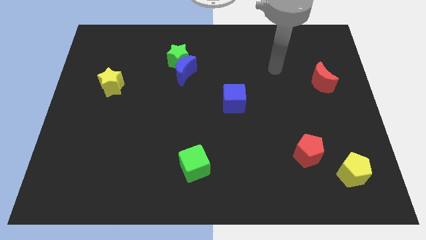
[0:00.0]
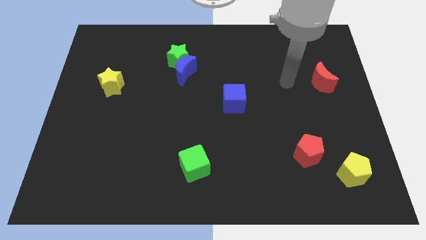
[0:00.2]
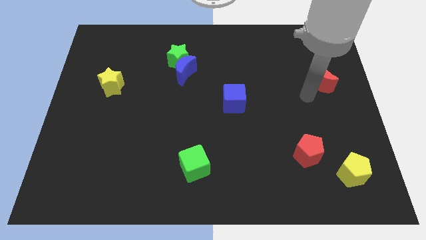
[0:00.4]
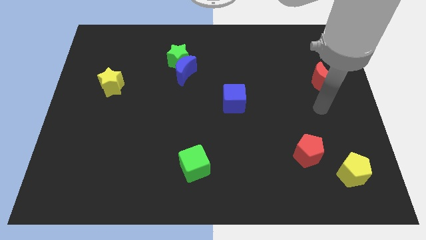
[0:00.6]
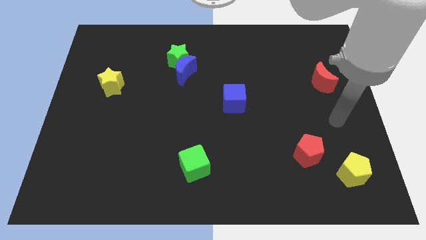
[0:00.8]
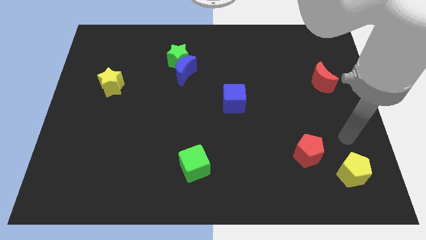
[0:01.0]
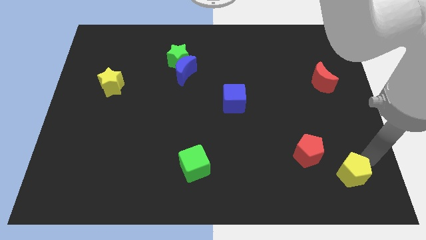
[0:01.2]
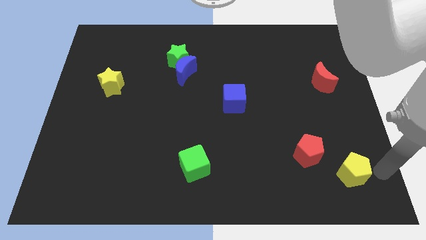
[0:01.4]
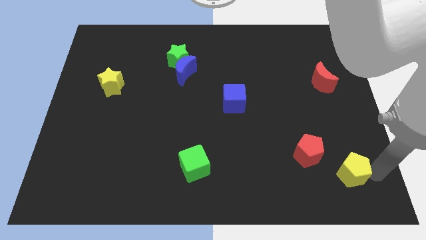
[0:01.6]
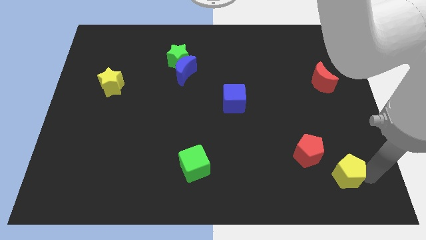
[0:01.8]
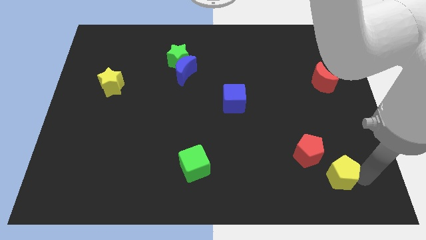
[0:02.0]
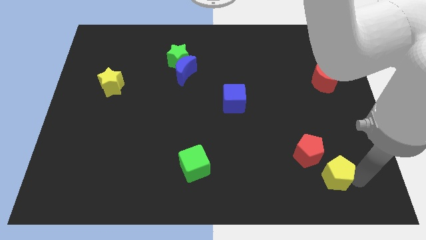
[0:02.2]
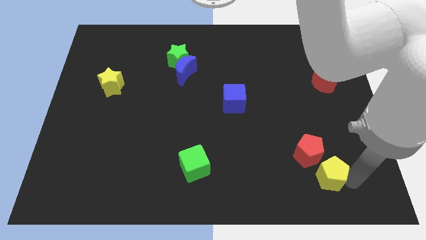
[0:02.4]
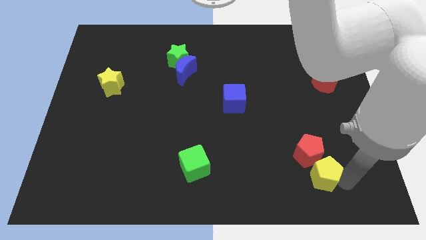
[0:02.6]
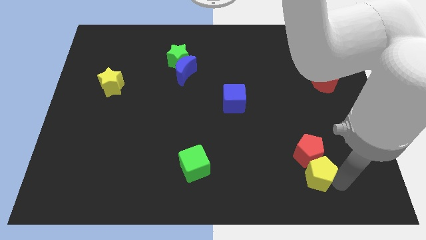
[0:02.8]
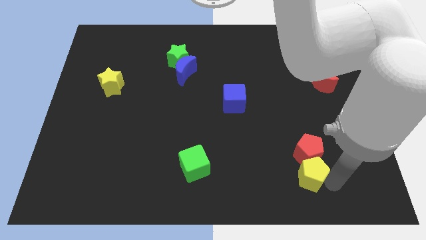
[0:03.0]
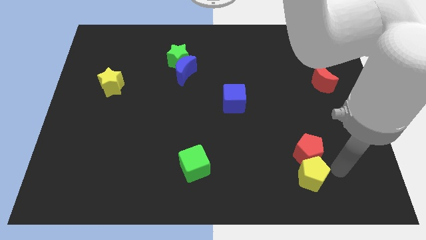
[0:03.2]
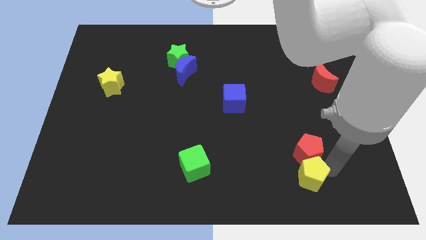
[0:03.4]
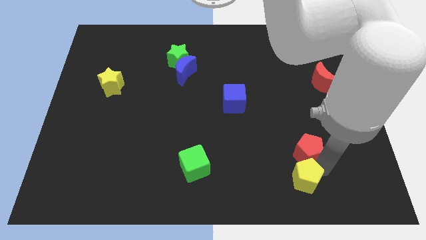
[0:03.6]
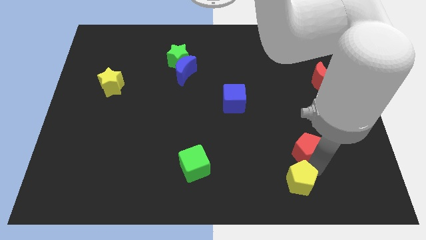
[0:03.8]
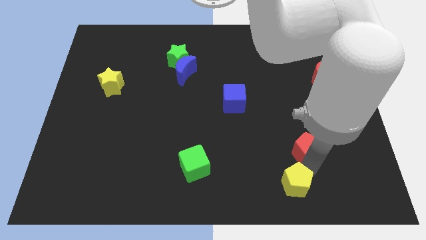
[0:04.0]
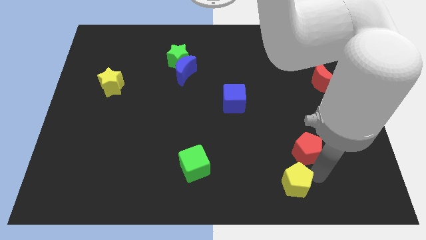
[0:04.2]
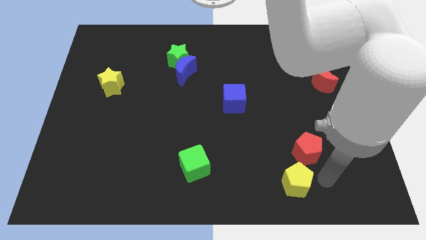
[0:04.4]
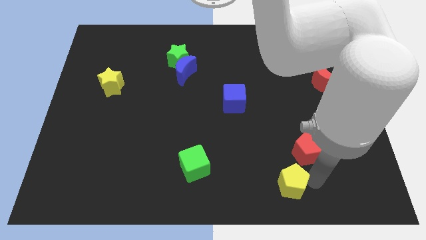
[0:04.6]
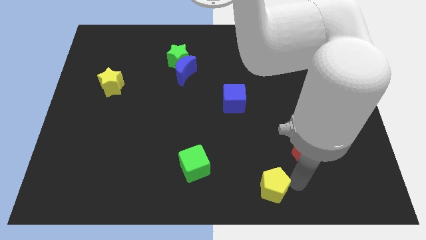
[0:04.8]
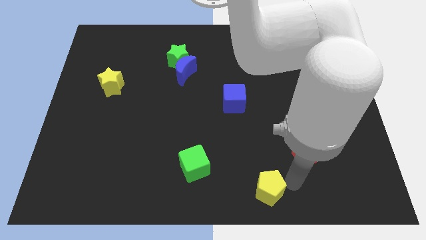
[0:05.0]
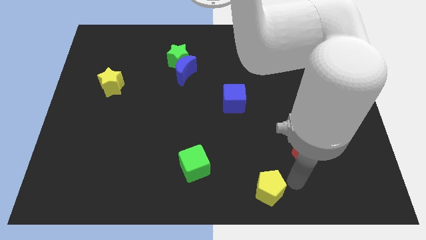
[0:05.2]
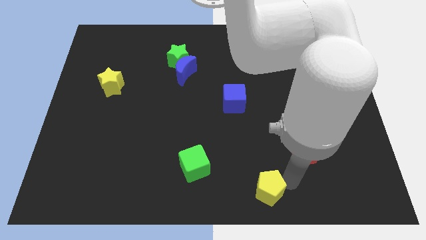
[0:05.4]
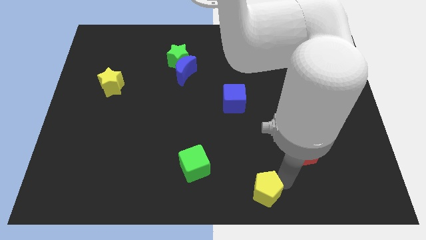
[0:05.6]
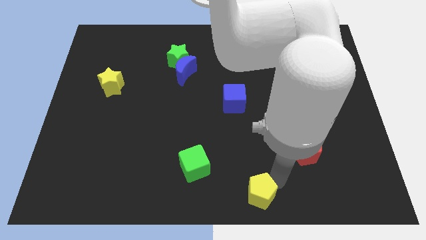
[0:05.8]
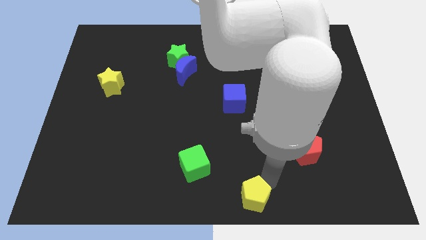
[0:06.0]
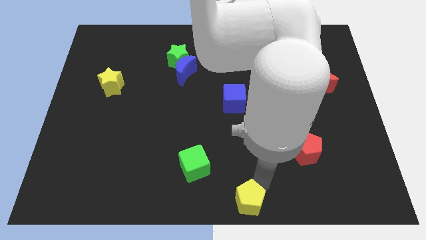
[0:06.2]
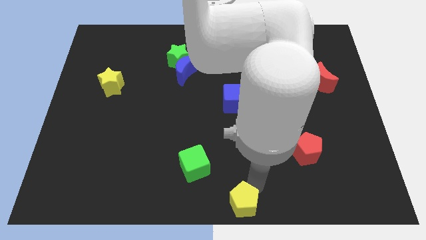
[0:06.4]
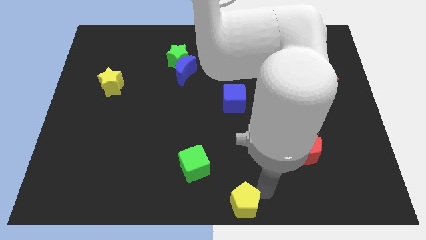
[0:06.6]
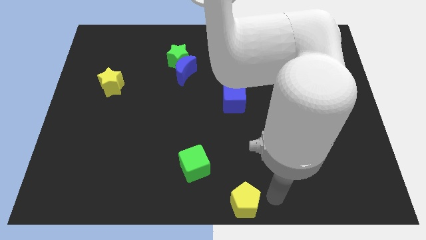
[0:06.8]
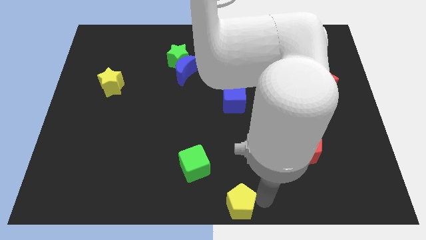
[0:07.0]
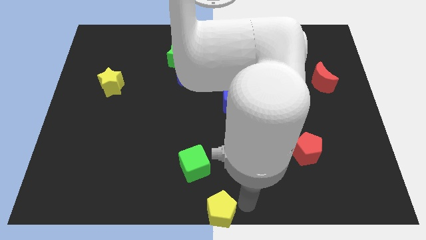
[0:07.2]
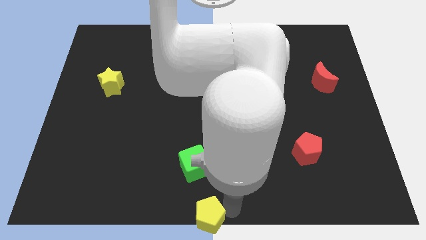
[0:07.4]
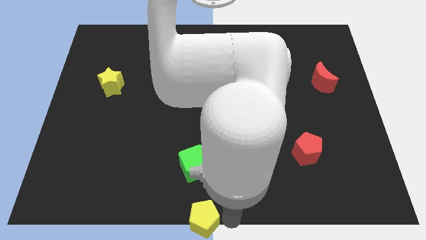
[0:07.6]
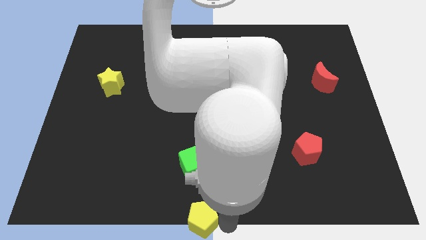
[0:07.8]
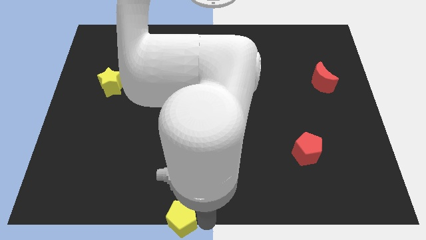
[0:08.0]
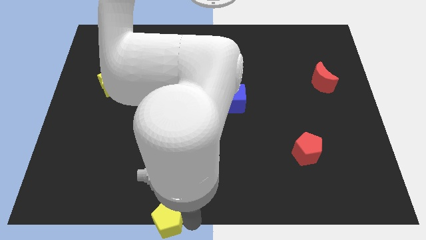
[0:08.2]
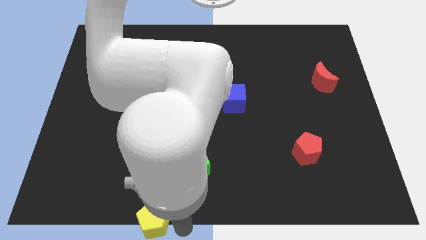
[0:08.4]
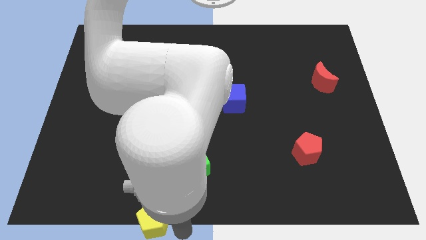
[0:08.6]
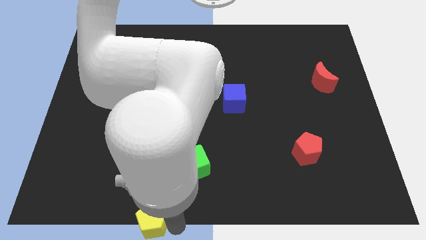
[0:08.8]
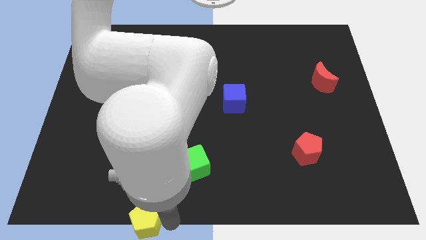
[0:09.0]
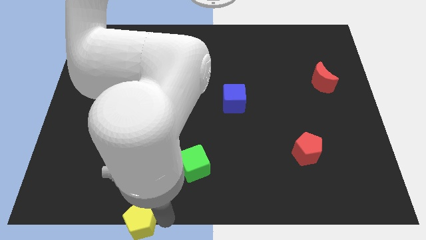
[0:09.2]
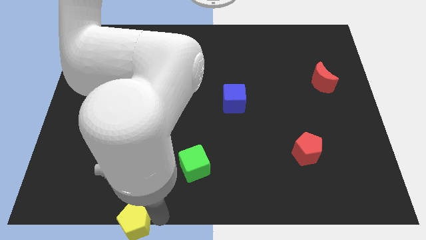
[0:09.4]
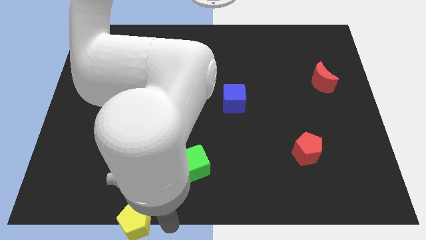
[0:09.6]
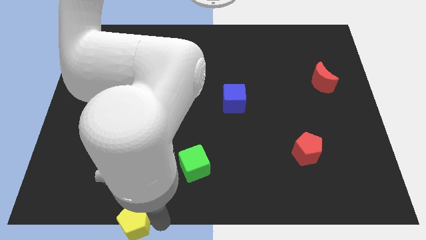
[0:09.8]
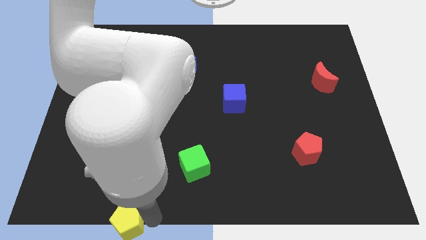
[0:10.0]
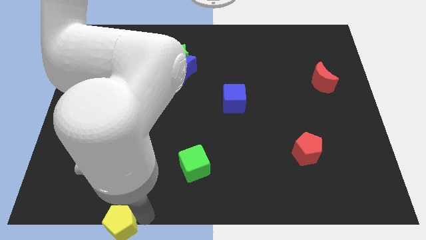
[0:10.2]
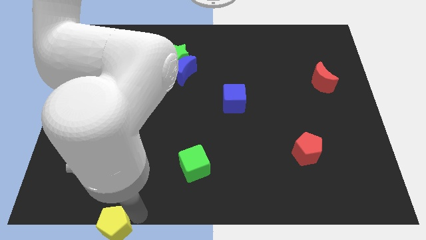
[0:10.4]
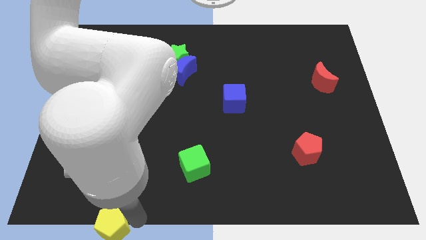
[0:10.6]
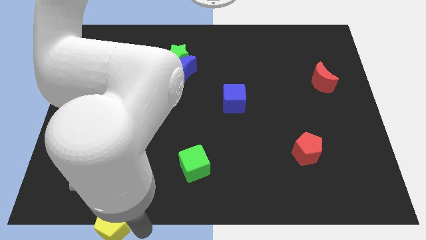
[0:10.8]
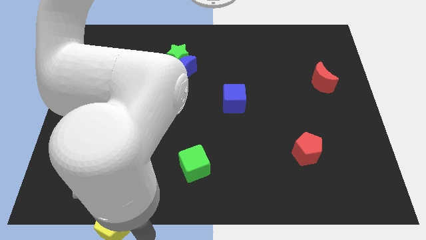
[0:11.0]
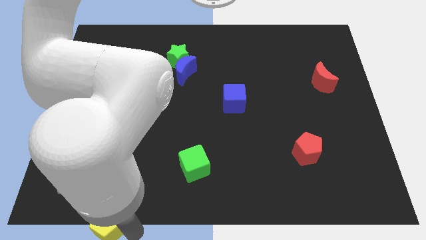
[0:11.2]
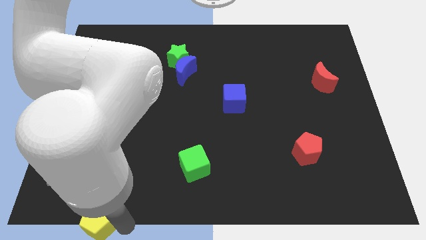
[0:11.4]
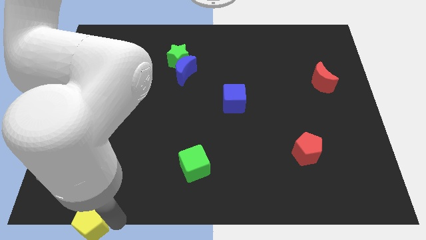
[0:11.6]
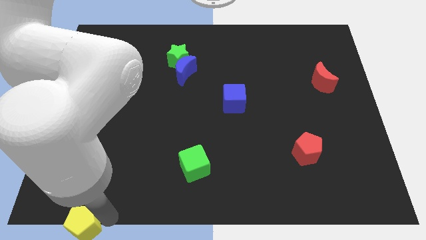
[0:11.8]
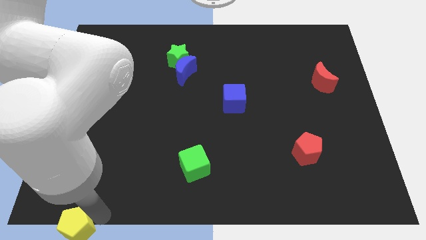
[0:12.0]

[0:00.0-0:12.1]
move the yellow pentagon to the bottom left of the board
